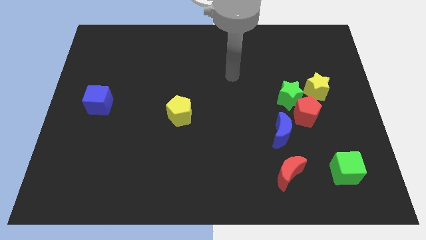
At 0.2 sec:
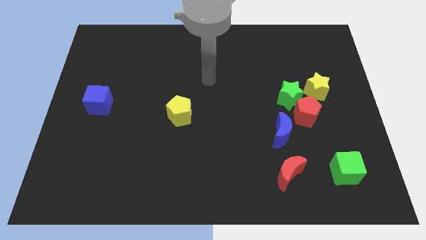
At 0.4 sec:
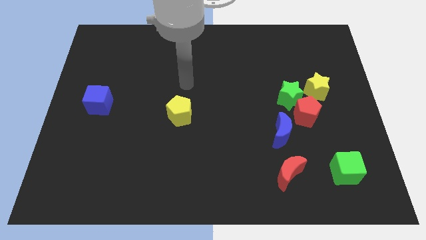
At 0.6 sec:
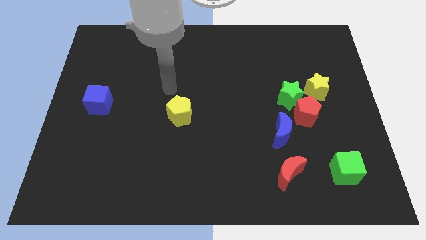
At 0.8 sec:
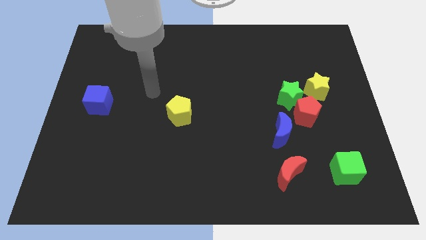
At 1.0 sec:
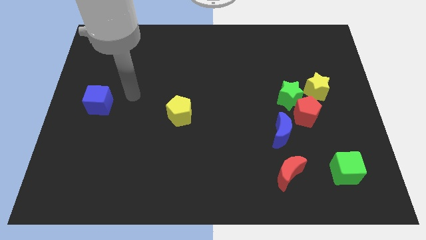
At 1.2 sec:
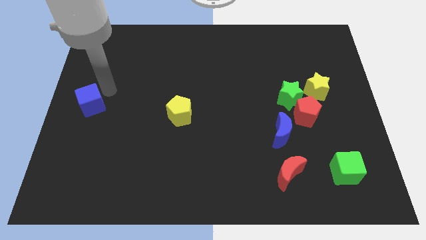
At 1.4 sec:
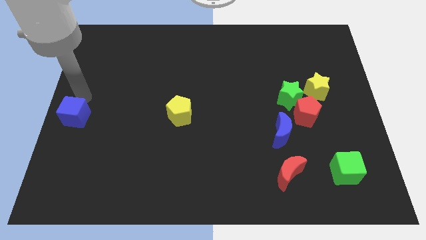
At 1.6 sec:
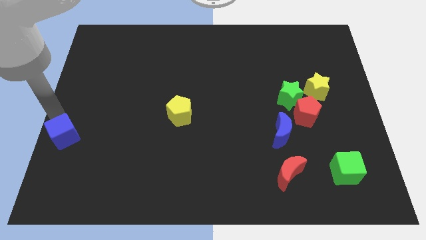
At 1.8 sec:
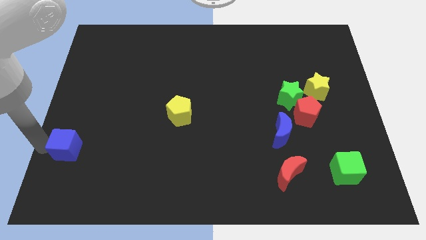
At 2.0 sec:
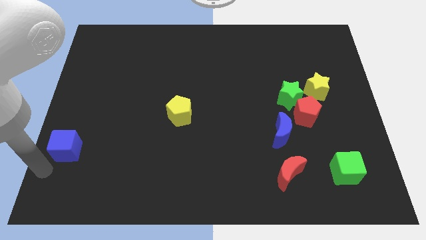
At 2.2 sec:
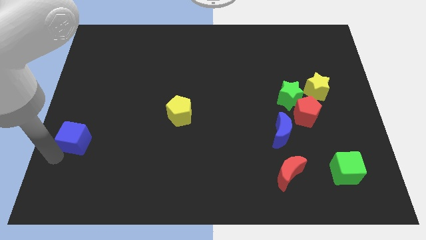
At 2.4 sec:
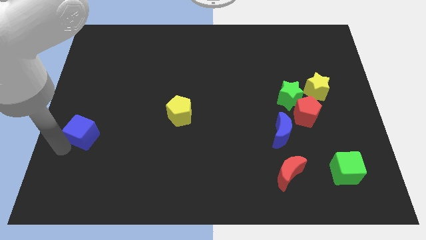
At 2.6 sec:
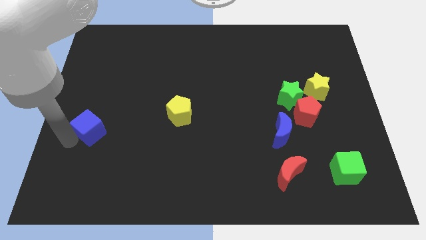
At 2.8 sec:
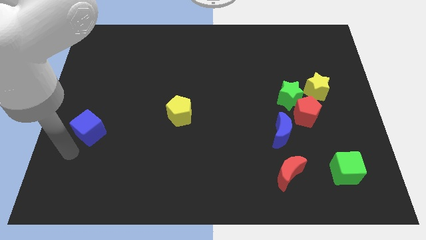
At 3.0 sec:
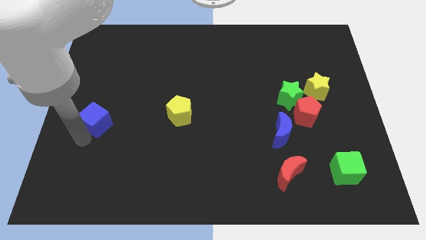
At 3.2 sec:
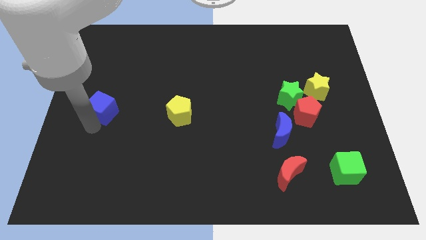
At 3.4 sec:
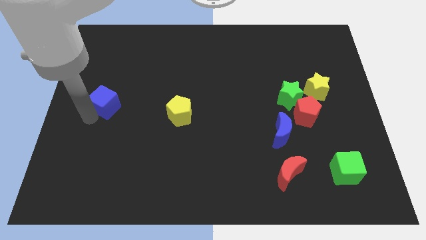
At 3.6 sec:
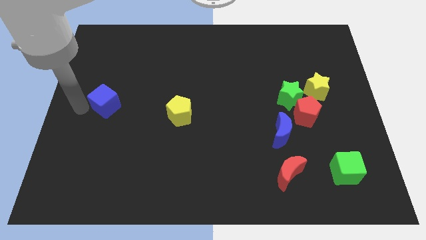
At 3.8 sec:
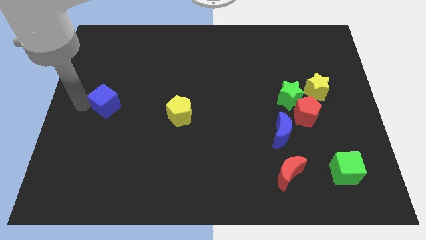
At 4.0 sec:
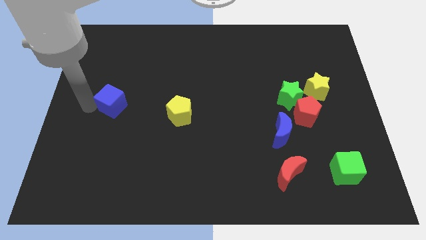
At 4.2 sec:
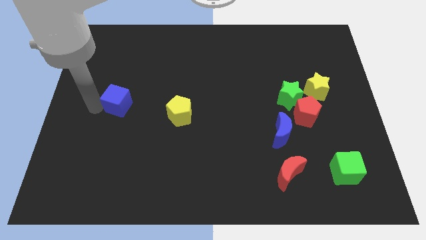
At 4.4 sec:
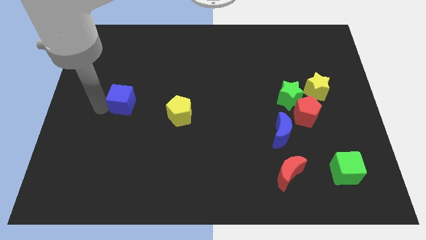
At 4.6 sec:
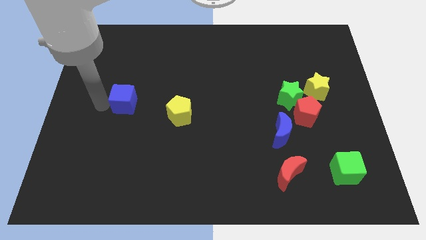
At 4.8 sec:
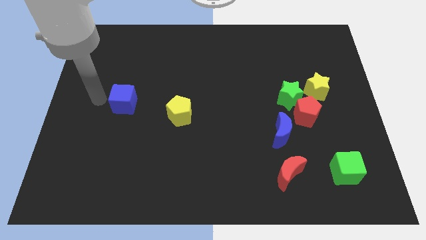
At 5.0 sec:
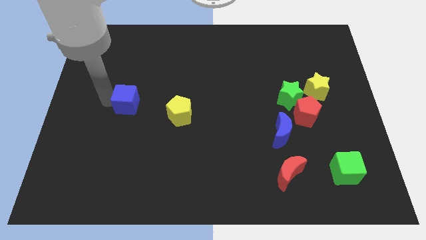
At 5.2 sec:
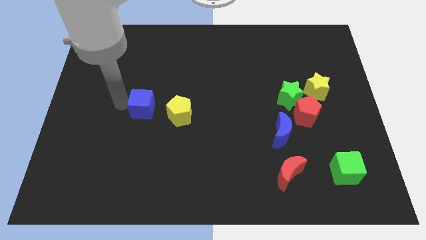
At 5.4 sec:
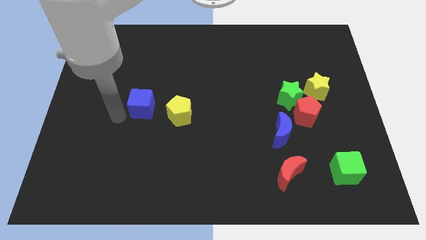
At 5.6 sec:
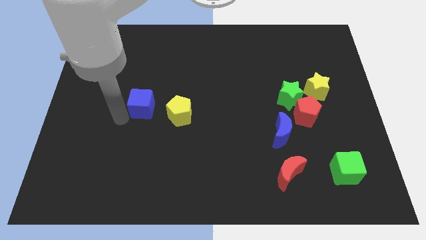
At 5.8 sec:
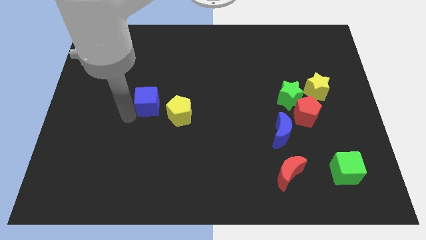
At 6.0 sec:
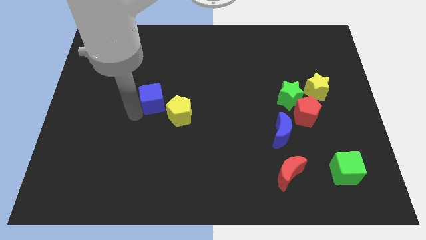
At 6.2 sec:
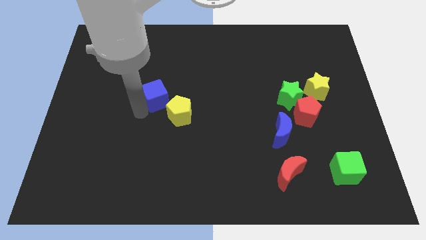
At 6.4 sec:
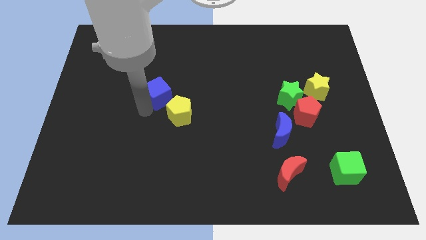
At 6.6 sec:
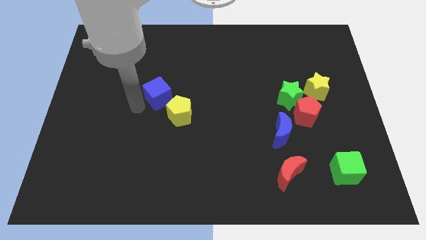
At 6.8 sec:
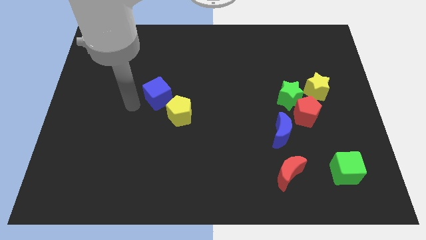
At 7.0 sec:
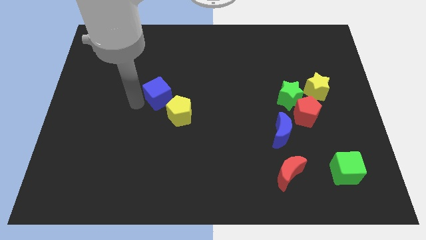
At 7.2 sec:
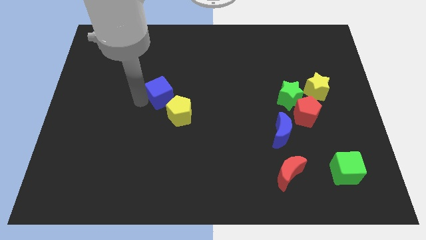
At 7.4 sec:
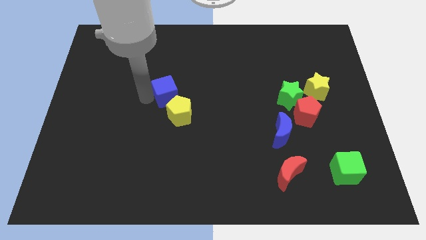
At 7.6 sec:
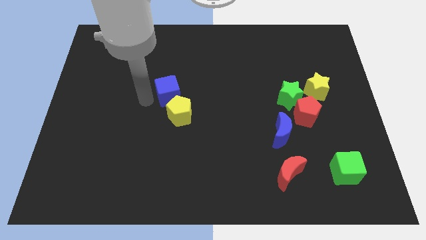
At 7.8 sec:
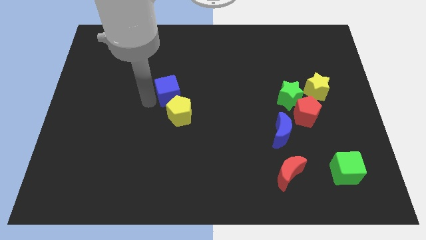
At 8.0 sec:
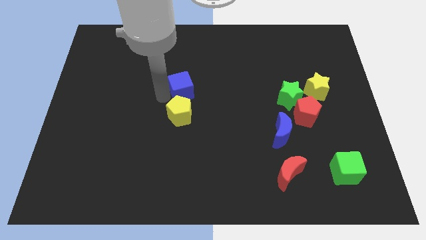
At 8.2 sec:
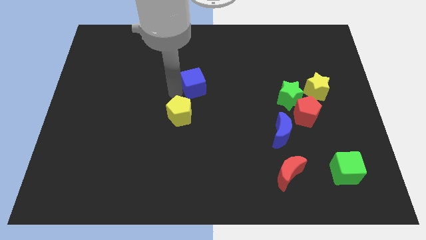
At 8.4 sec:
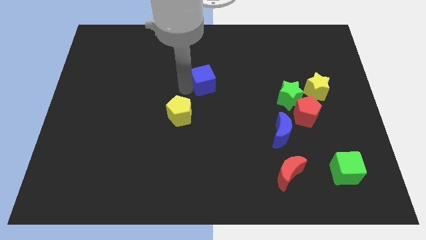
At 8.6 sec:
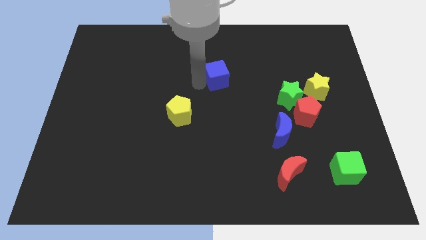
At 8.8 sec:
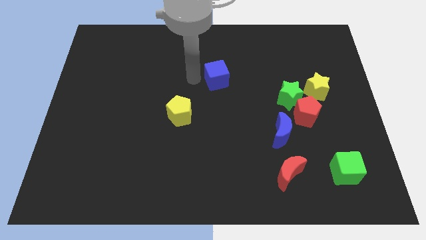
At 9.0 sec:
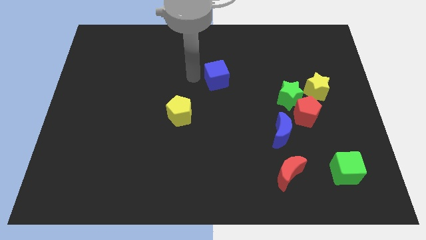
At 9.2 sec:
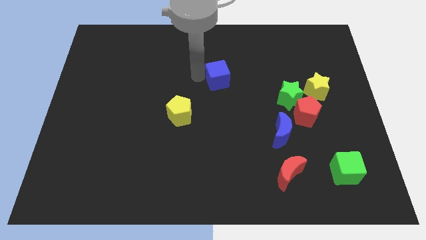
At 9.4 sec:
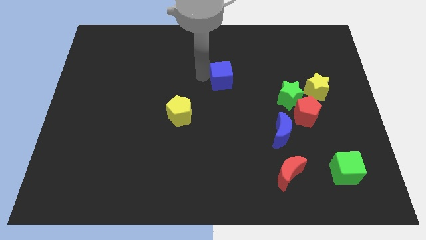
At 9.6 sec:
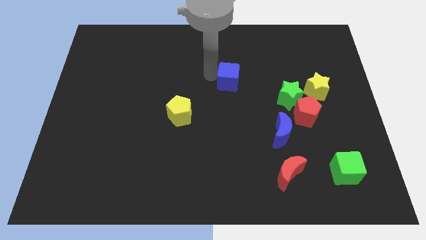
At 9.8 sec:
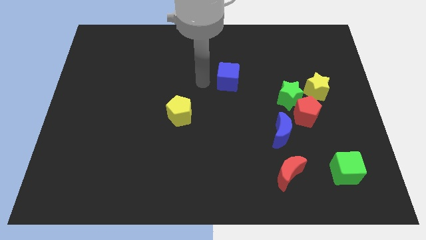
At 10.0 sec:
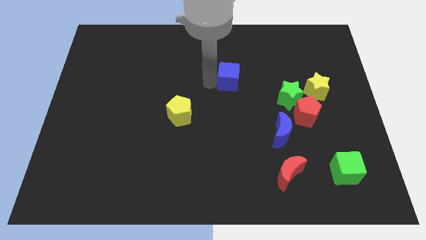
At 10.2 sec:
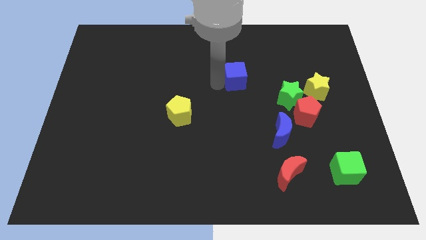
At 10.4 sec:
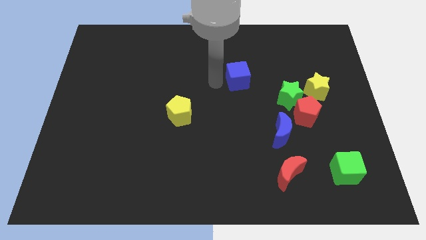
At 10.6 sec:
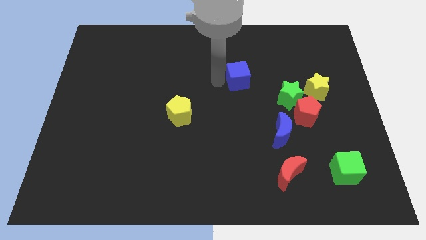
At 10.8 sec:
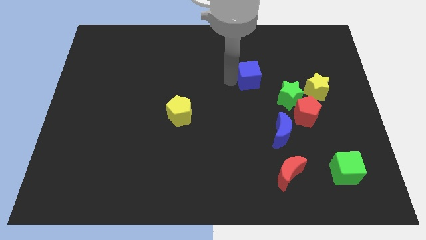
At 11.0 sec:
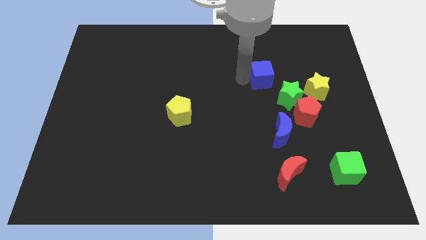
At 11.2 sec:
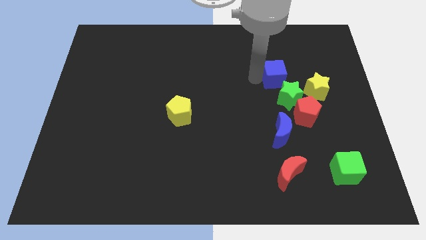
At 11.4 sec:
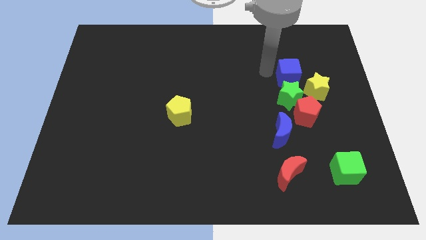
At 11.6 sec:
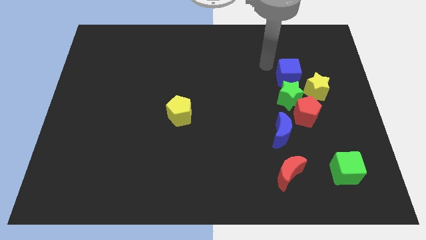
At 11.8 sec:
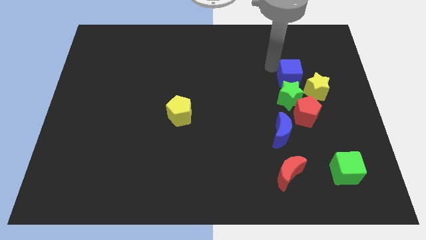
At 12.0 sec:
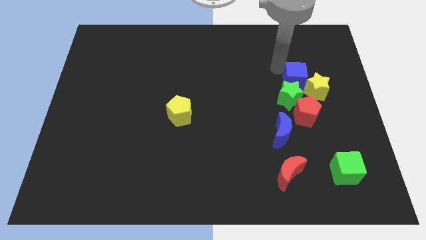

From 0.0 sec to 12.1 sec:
slide the blue cube close to the yellow star

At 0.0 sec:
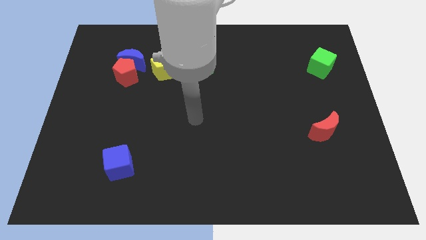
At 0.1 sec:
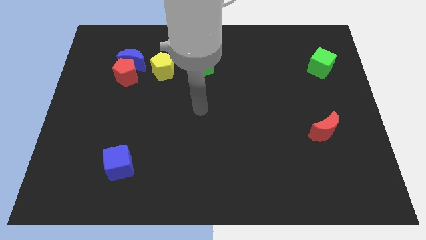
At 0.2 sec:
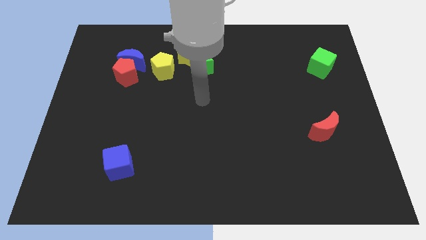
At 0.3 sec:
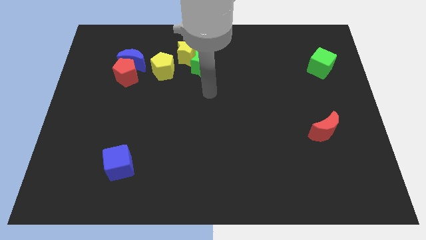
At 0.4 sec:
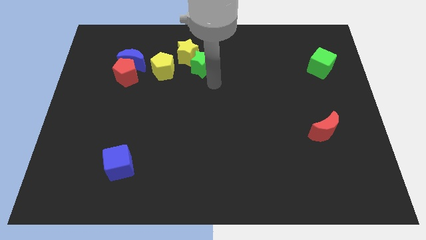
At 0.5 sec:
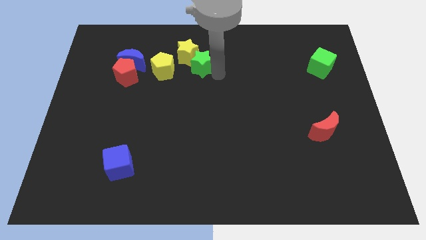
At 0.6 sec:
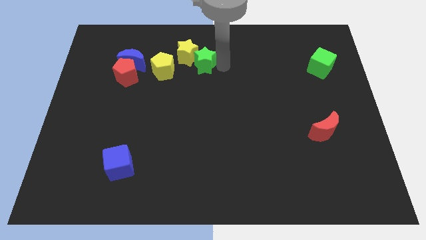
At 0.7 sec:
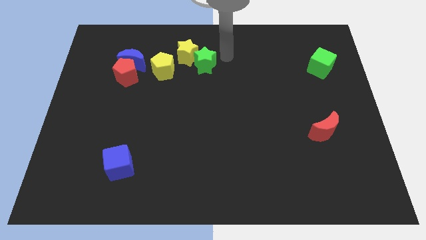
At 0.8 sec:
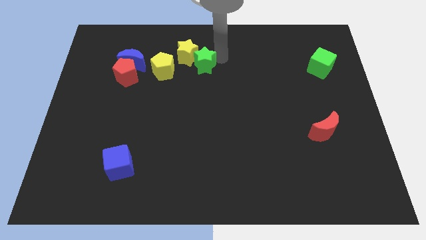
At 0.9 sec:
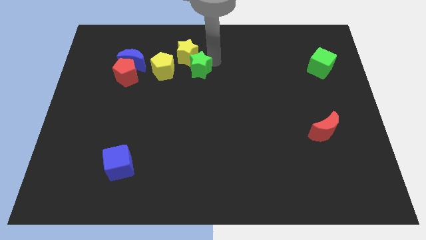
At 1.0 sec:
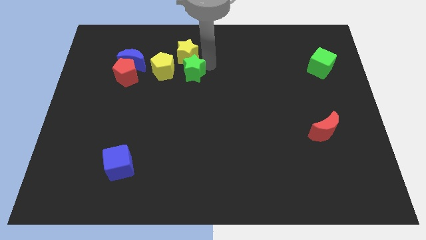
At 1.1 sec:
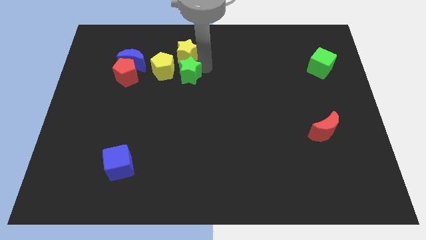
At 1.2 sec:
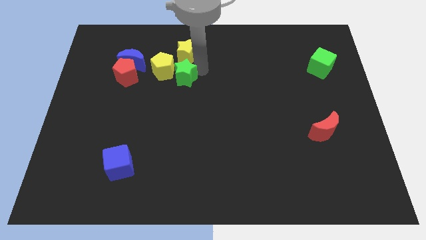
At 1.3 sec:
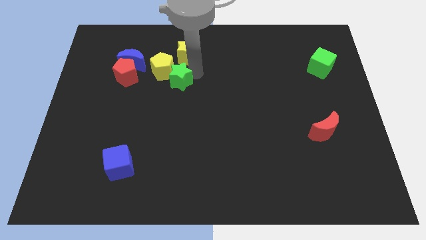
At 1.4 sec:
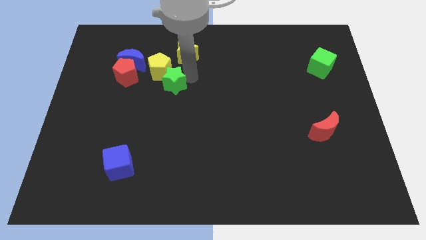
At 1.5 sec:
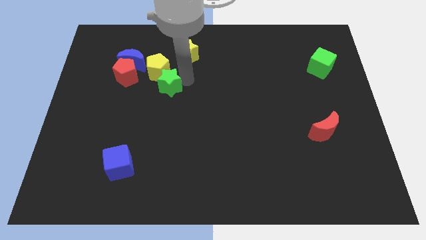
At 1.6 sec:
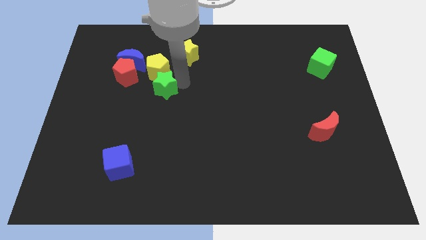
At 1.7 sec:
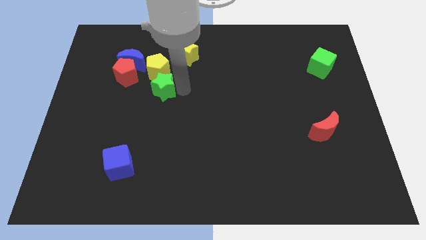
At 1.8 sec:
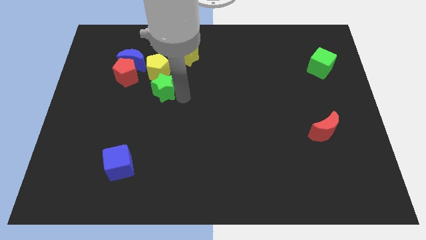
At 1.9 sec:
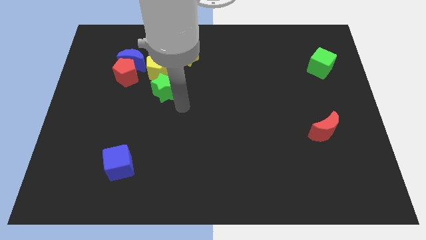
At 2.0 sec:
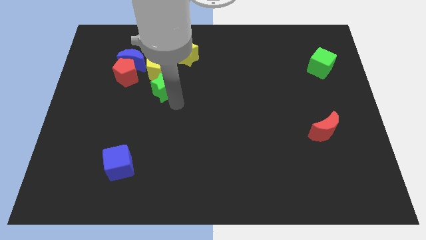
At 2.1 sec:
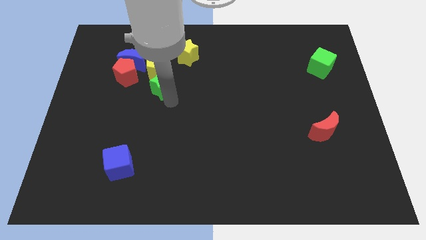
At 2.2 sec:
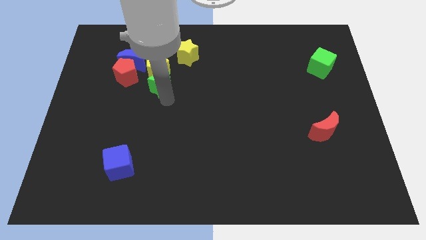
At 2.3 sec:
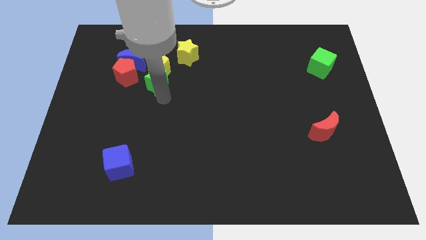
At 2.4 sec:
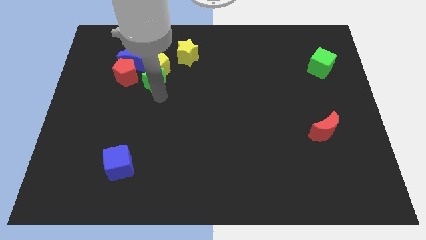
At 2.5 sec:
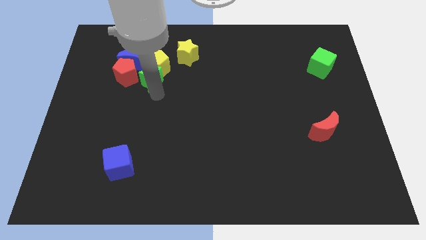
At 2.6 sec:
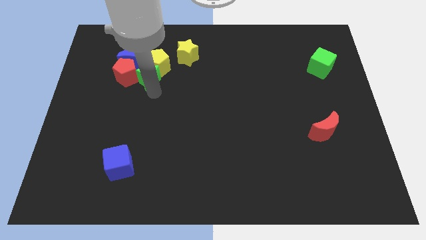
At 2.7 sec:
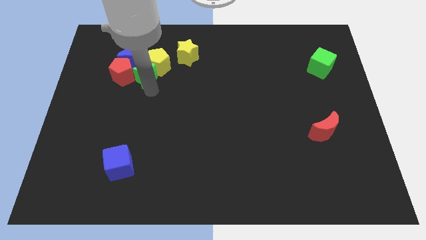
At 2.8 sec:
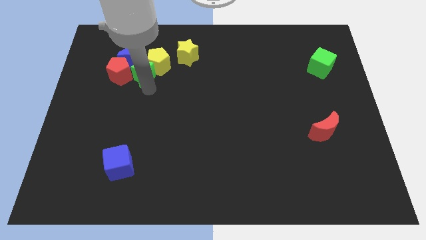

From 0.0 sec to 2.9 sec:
move the green star towards the blue moon
